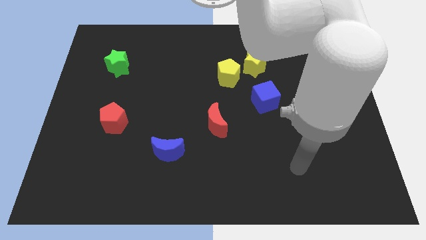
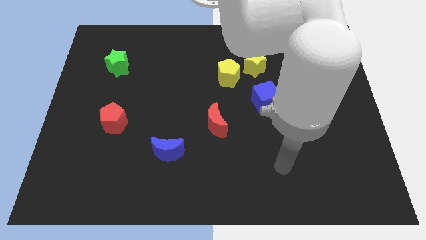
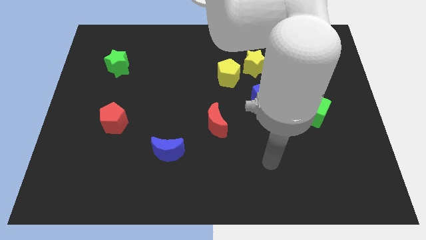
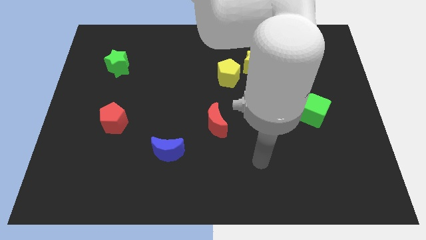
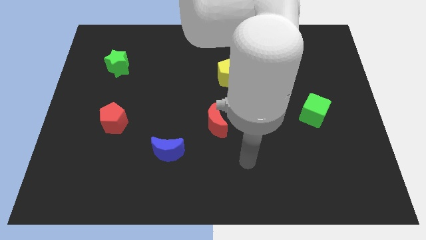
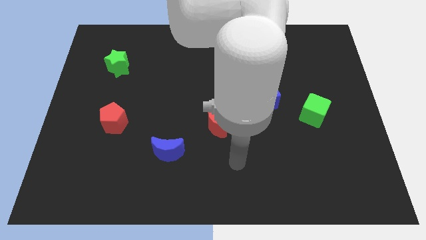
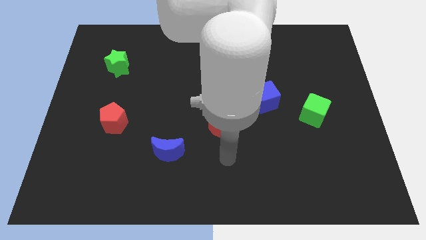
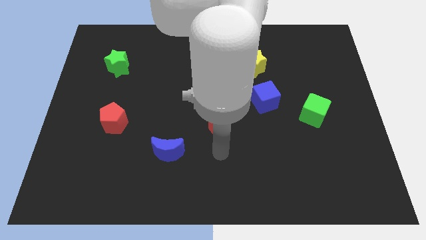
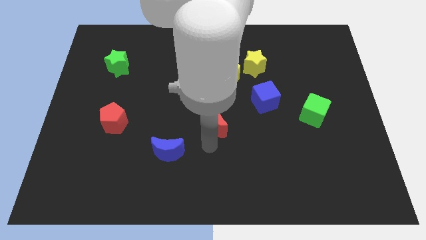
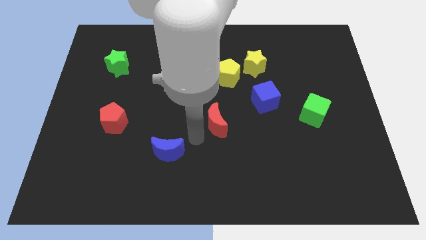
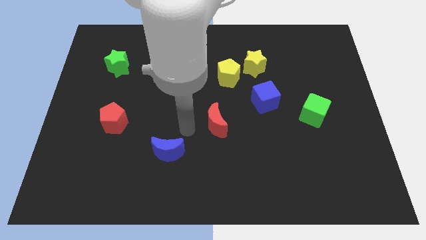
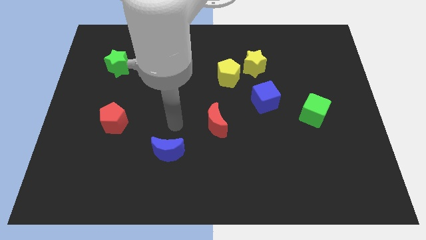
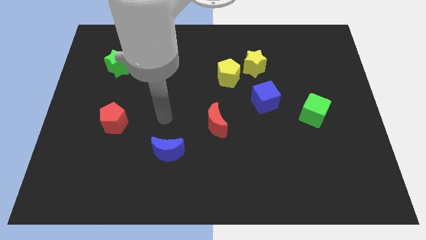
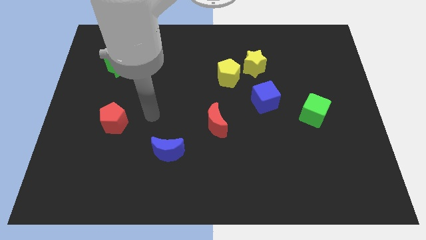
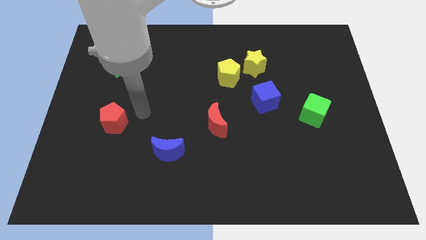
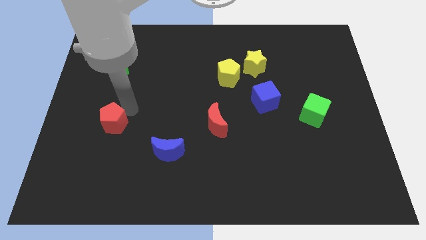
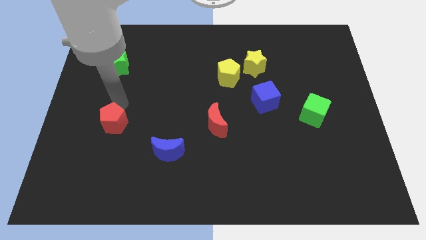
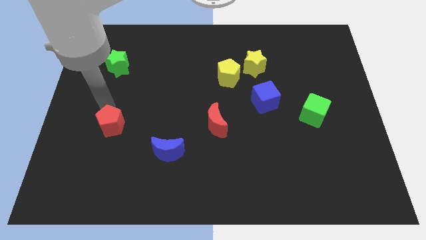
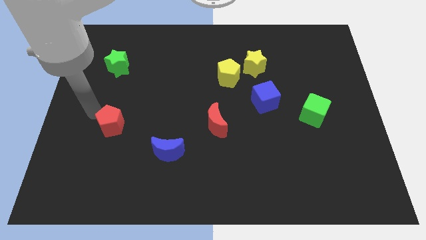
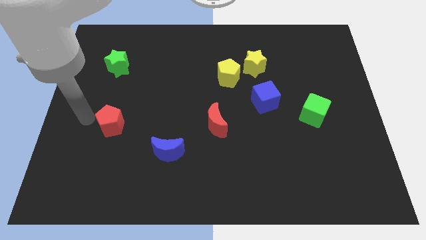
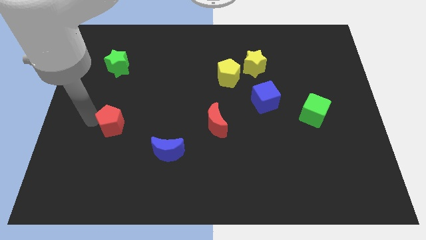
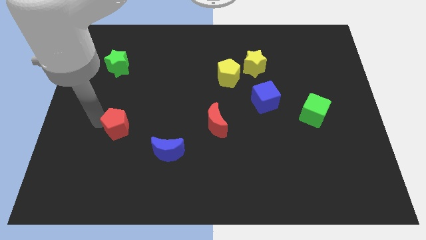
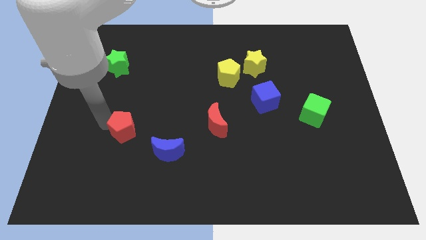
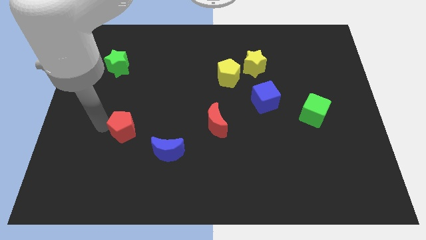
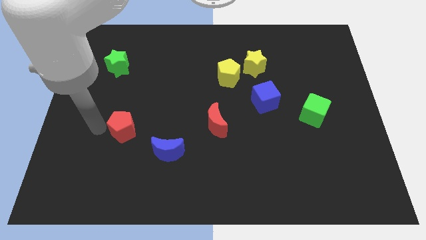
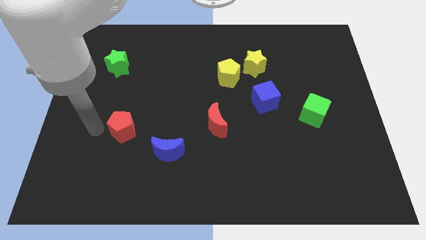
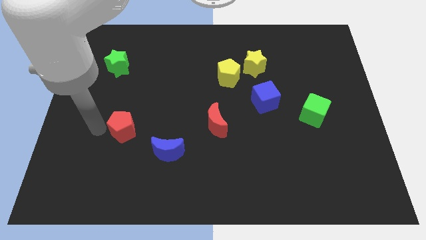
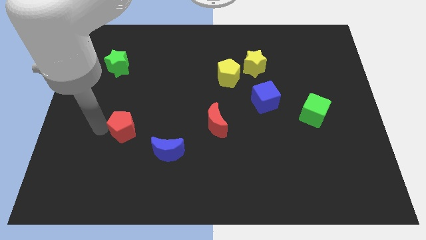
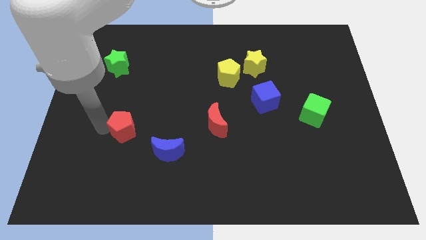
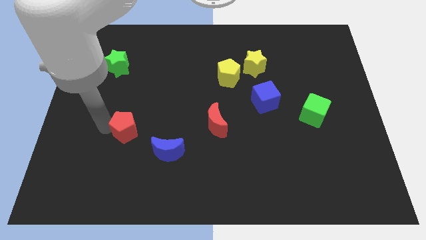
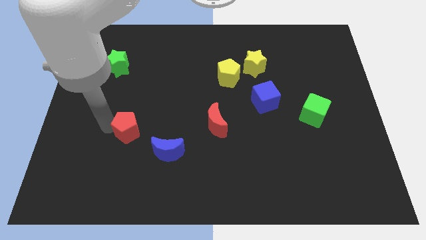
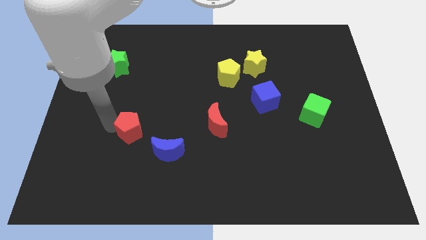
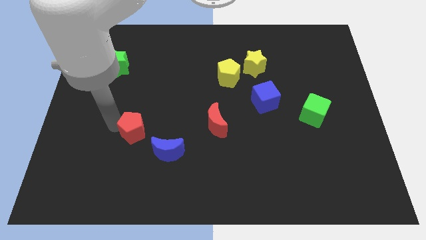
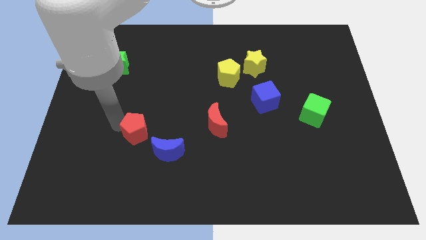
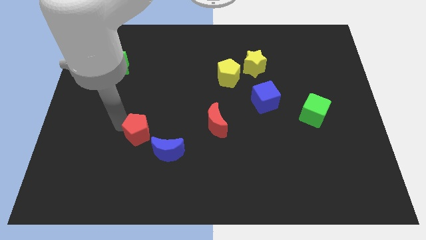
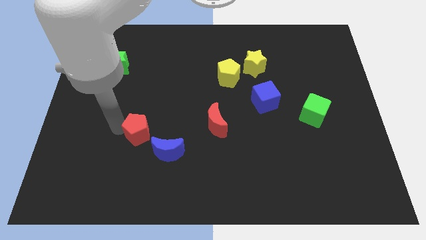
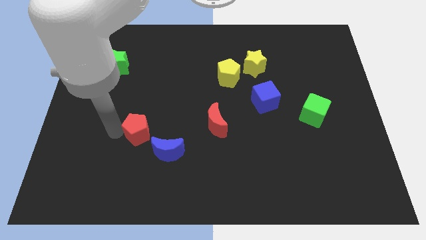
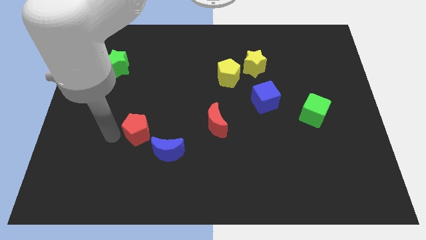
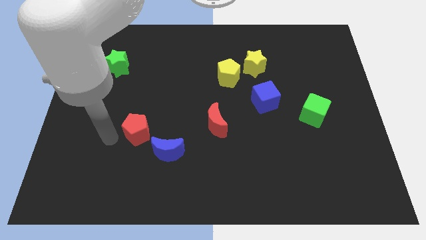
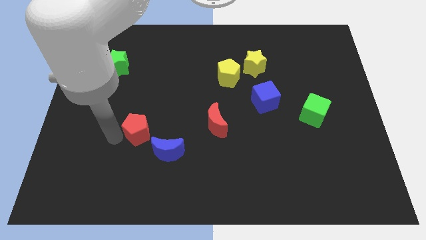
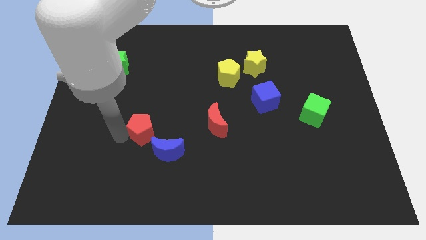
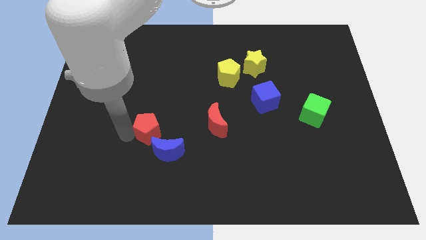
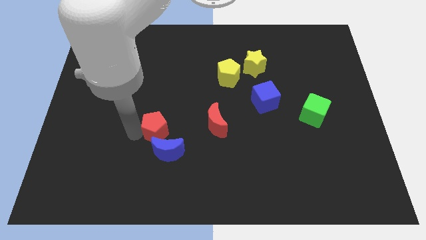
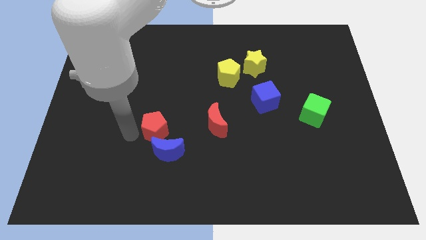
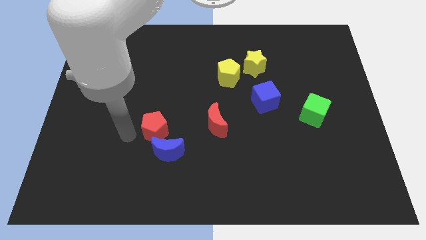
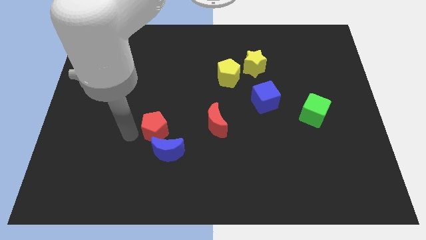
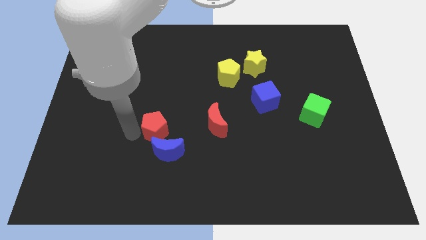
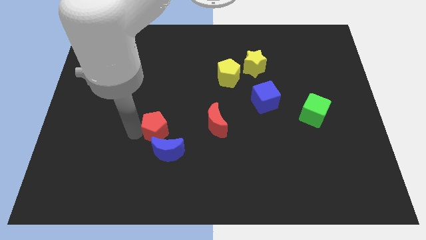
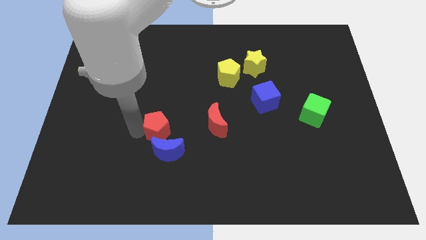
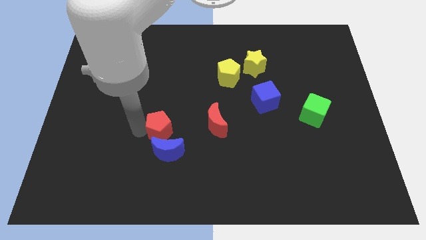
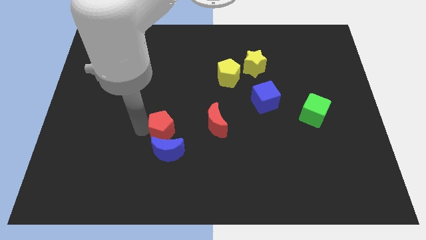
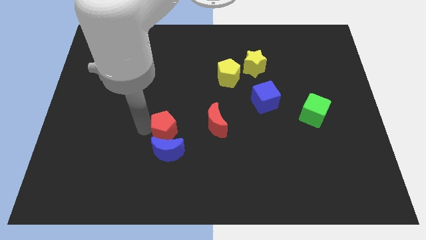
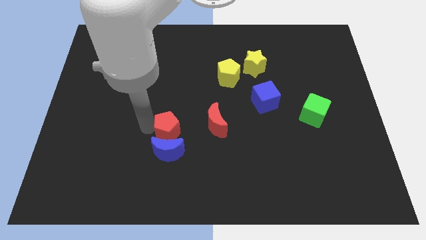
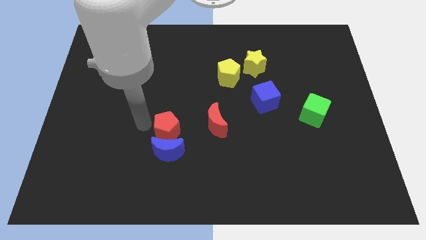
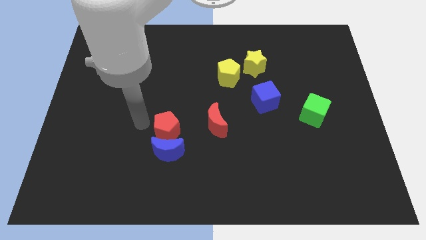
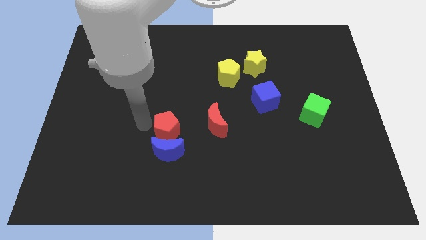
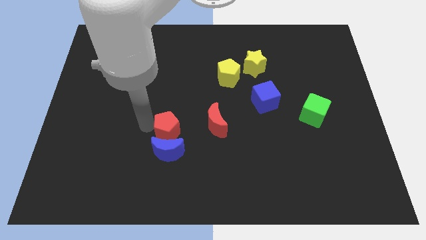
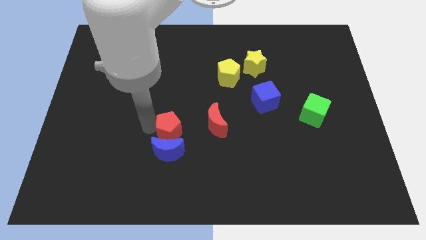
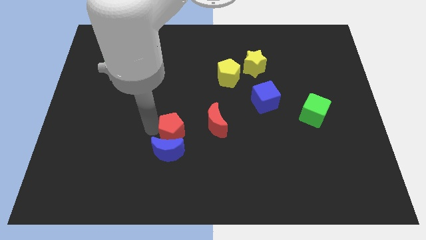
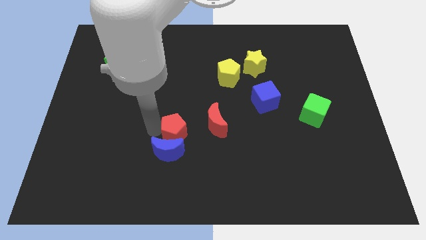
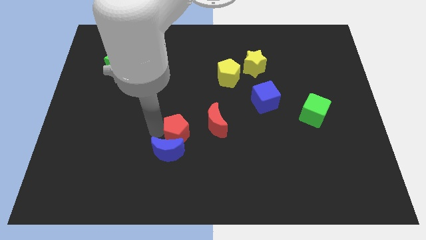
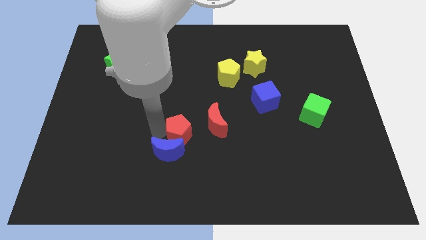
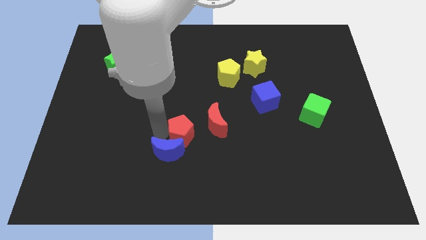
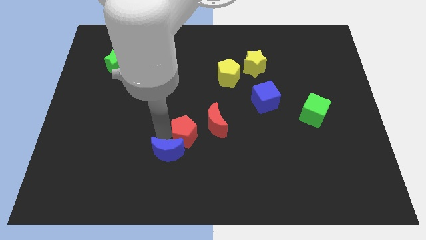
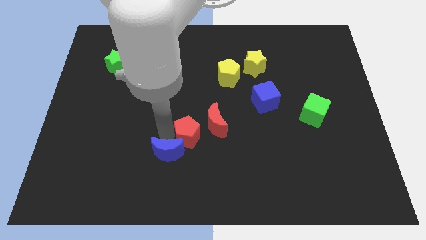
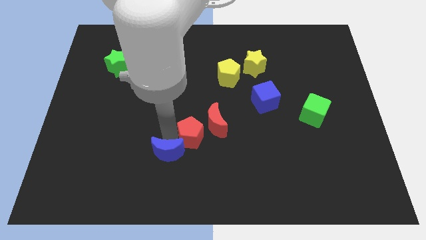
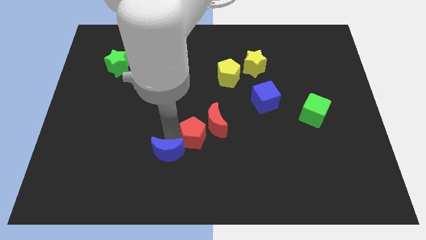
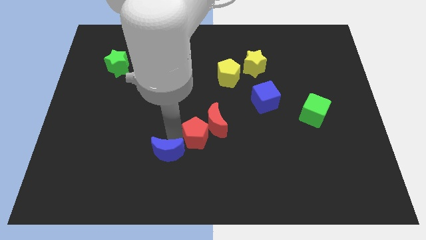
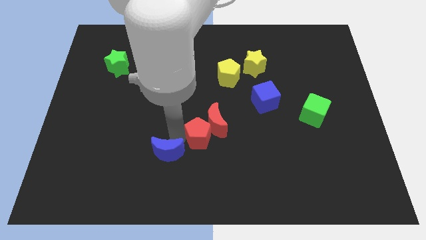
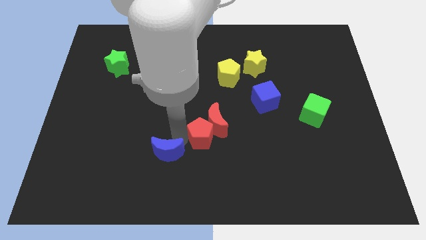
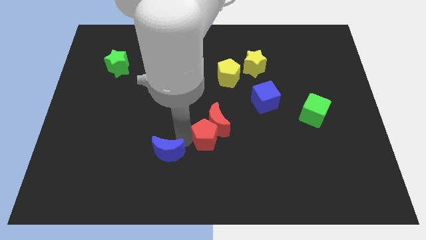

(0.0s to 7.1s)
move the red pentagon to the right

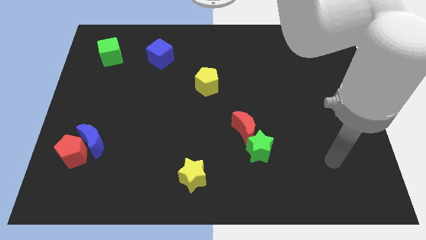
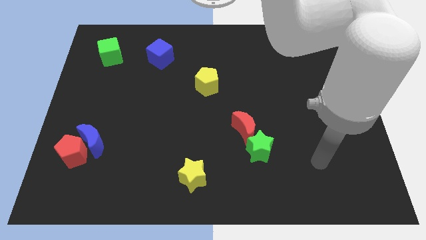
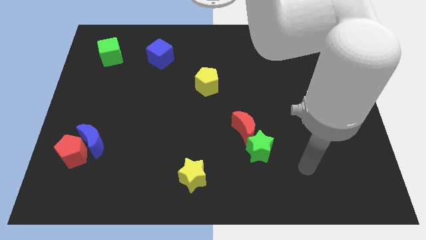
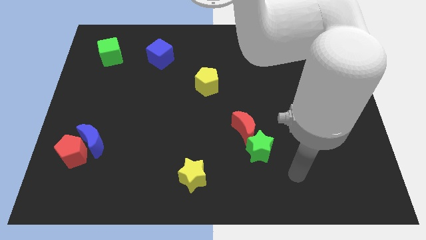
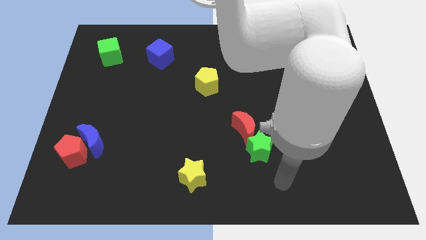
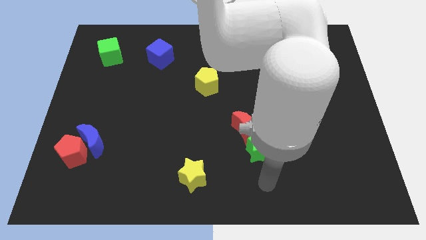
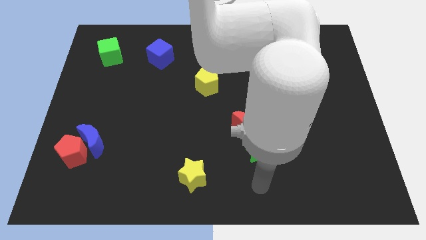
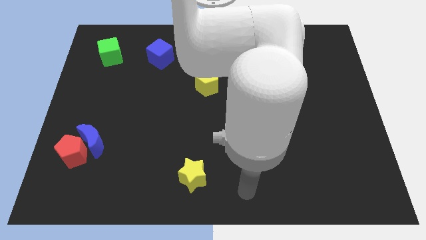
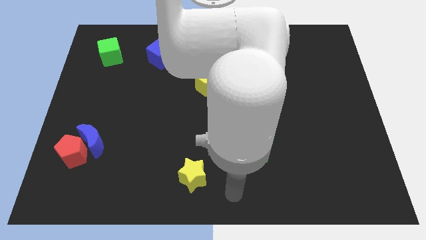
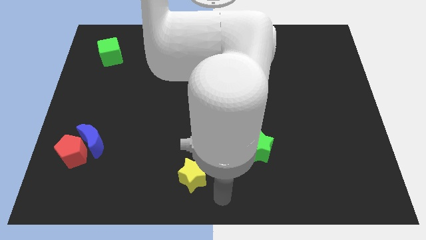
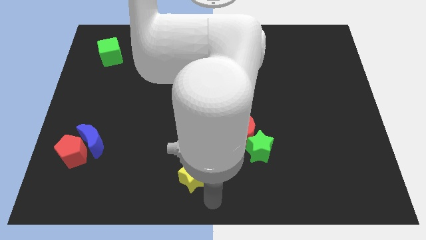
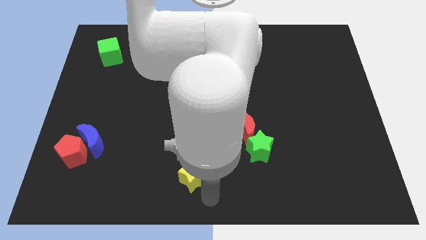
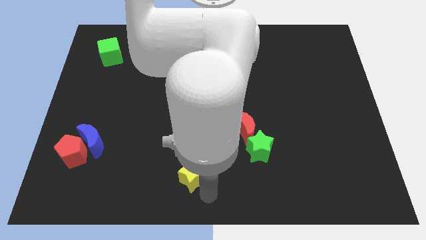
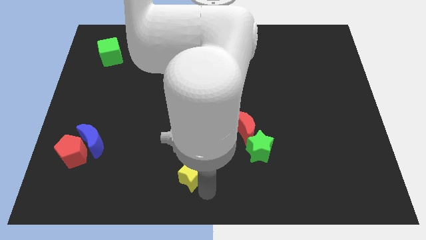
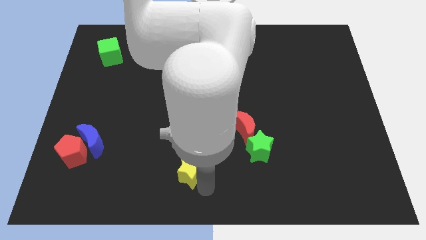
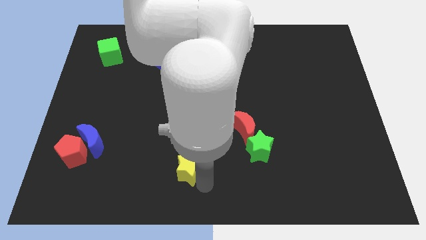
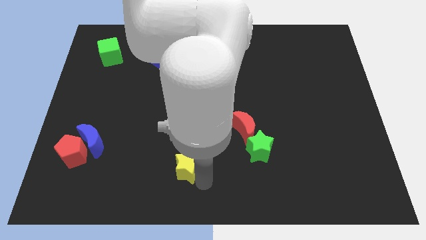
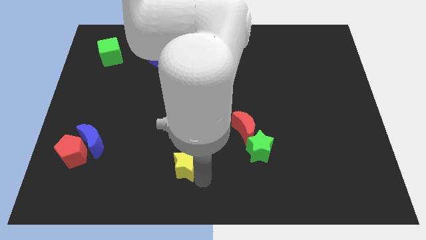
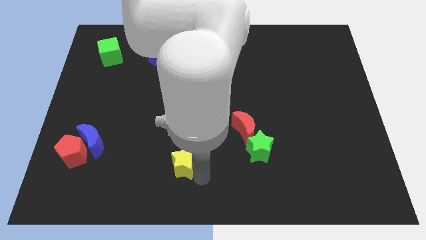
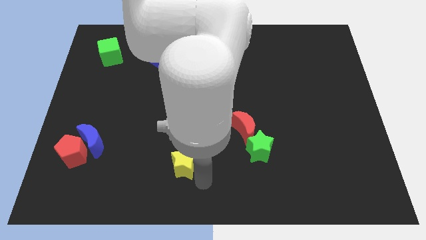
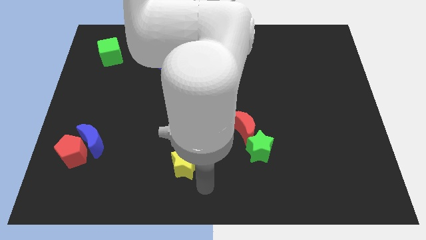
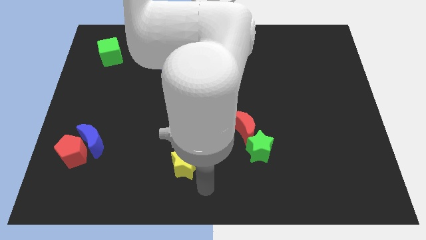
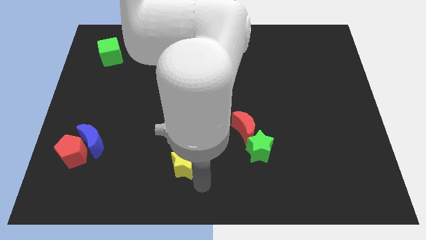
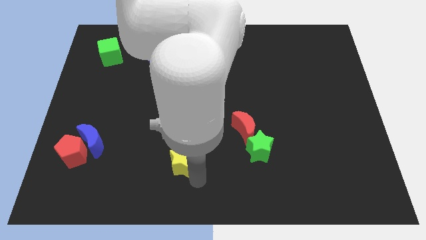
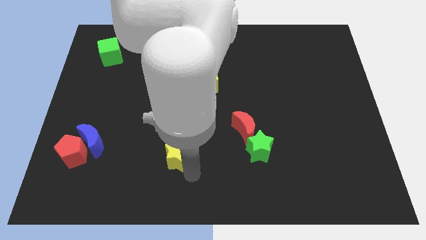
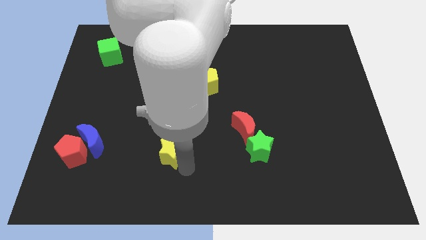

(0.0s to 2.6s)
slide the yellow star diagonally up and left a little
